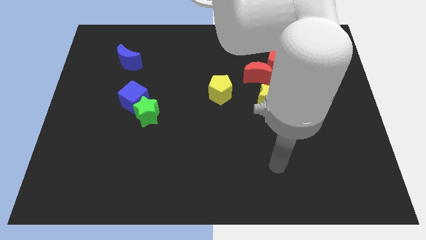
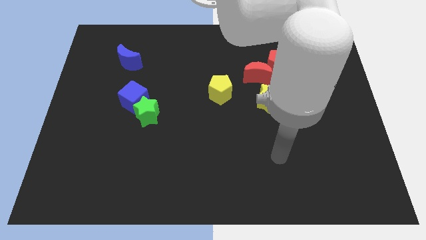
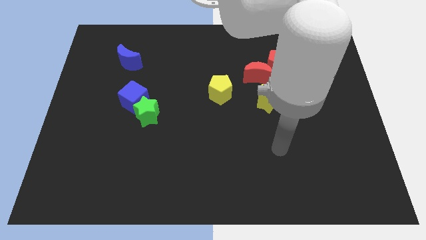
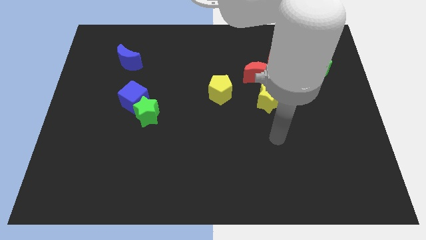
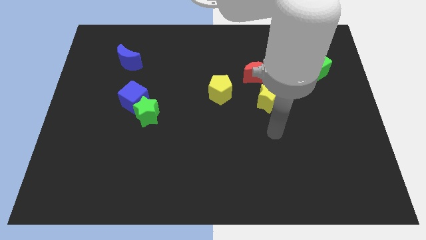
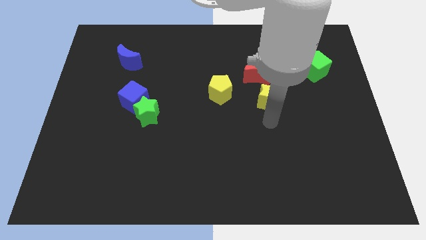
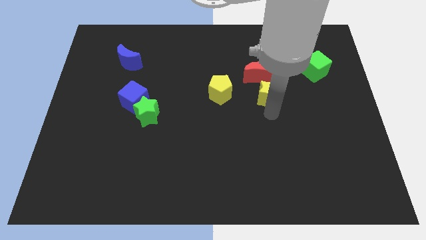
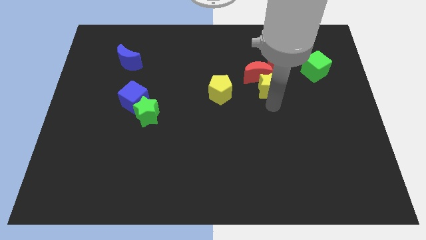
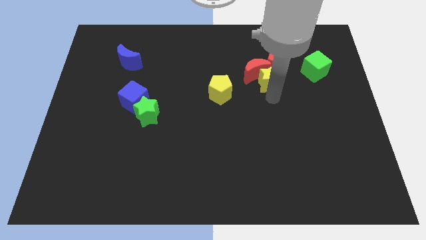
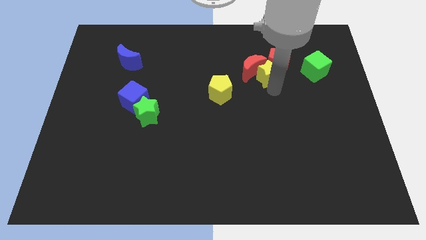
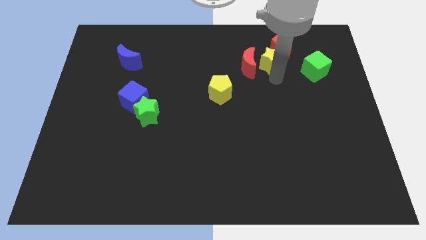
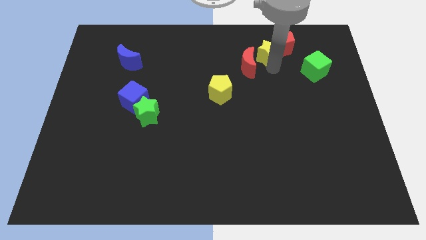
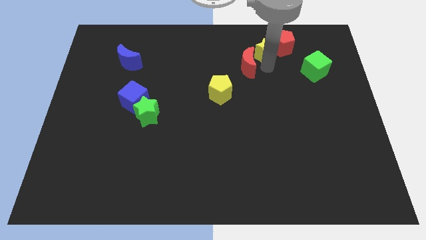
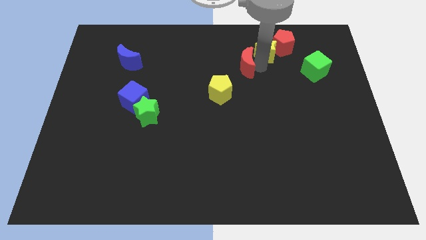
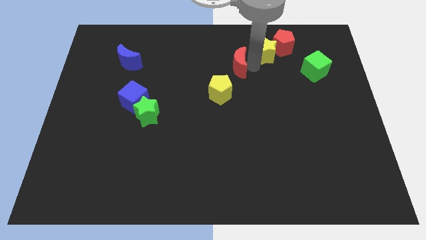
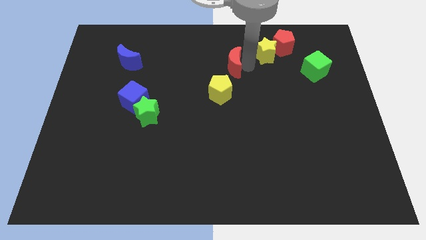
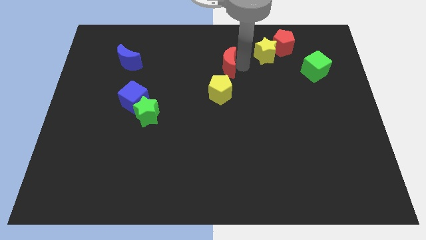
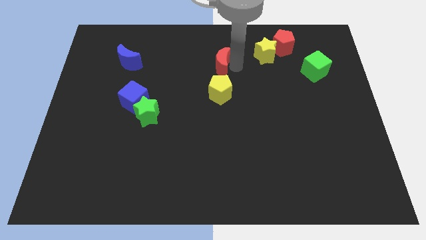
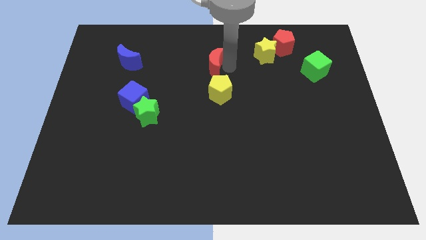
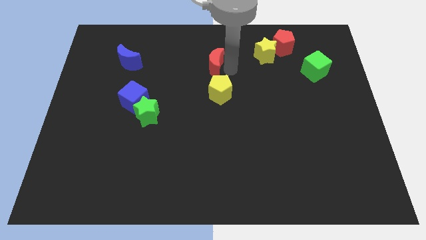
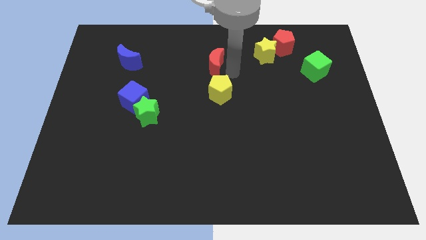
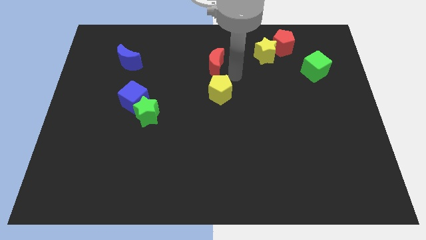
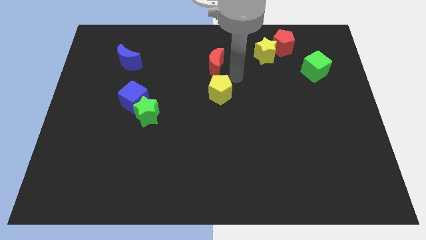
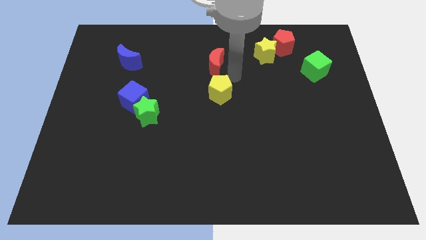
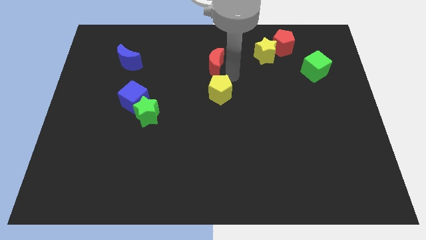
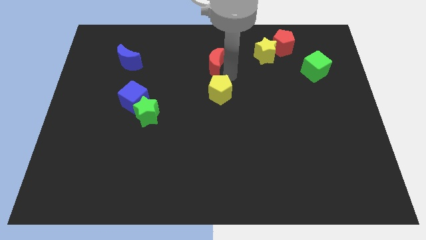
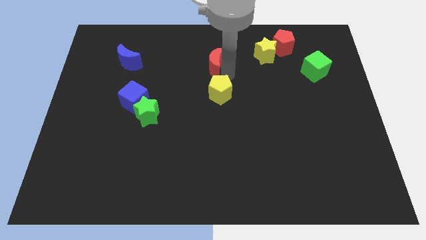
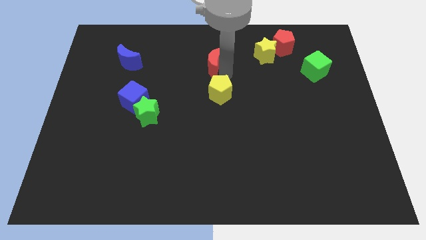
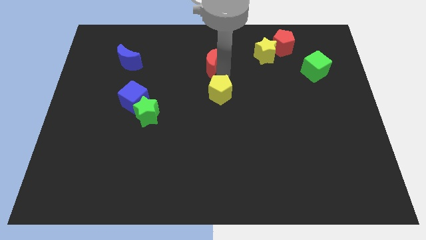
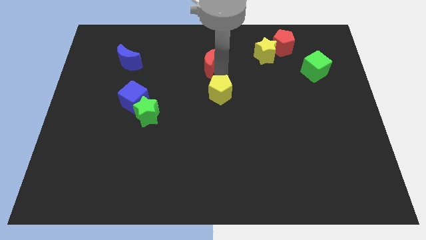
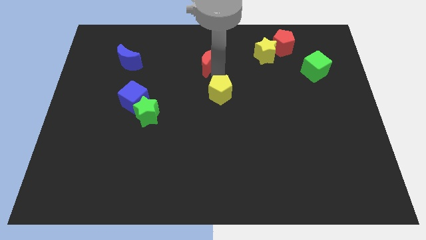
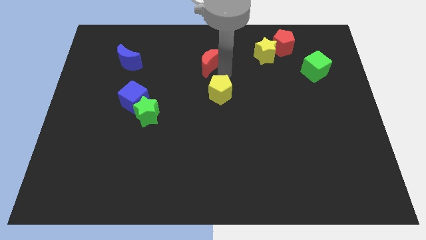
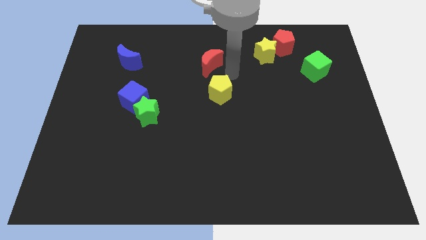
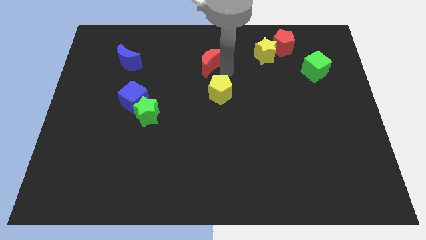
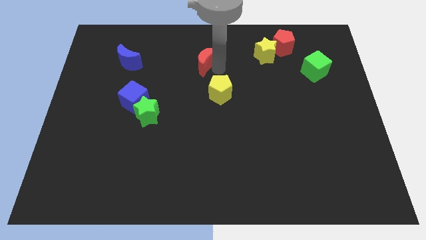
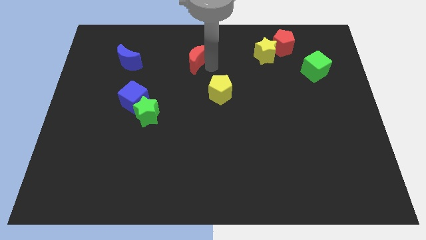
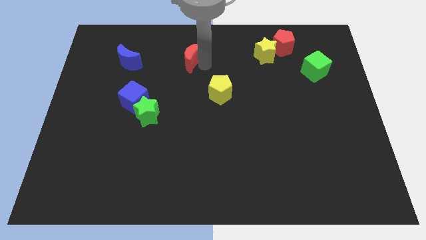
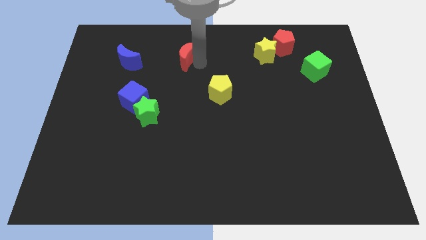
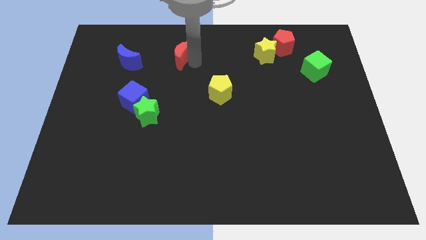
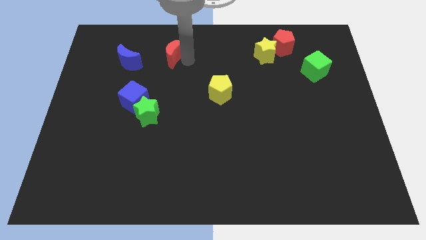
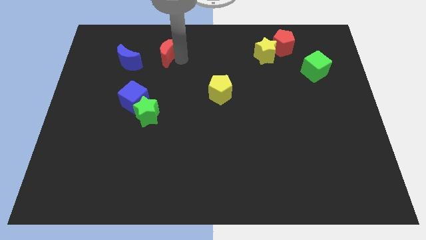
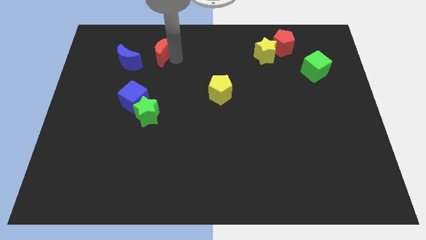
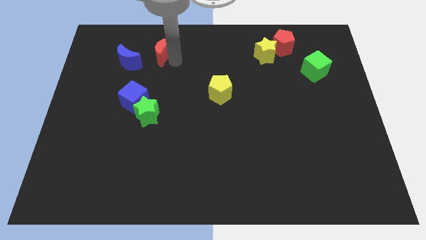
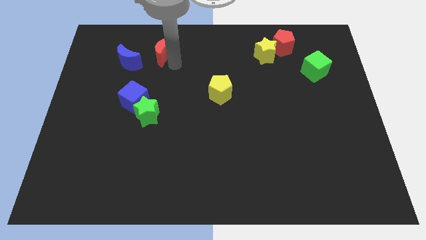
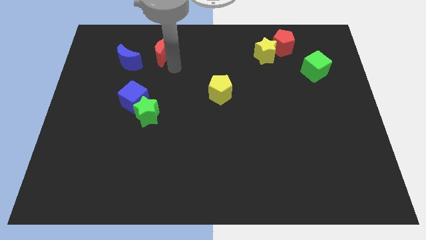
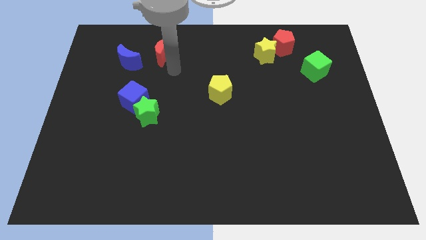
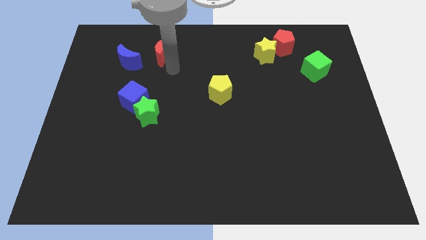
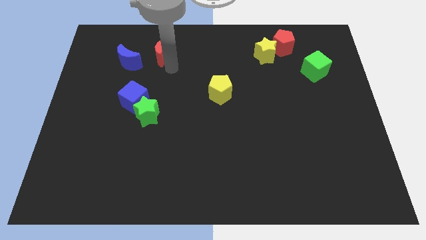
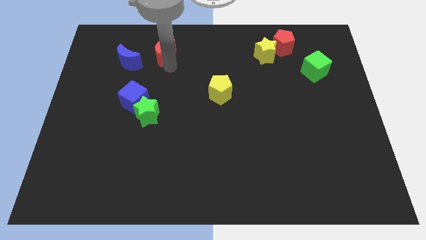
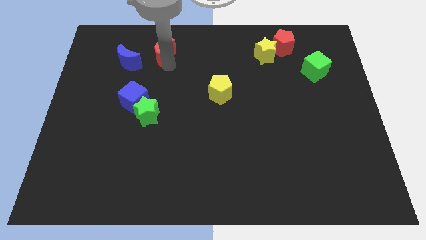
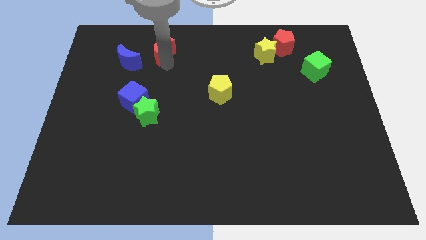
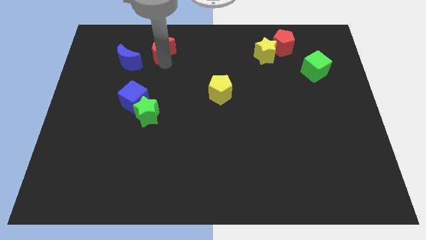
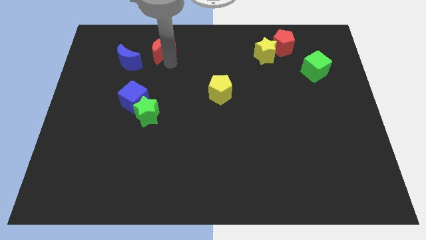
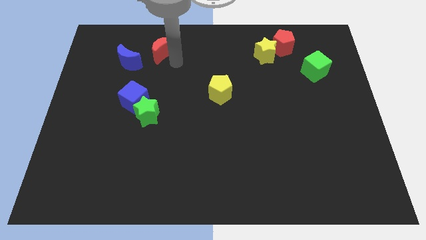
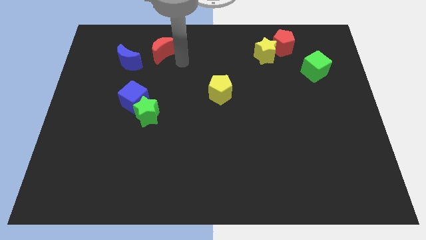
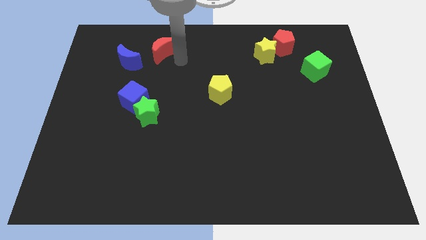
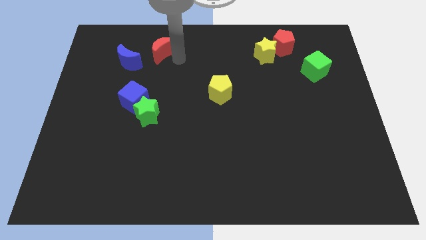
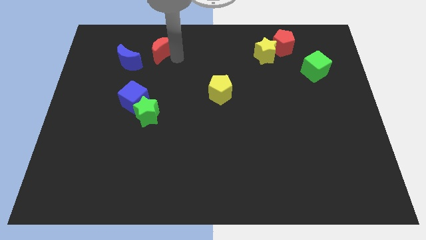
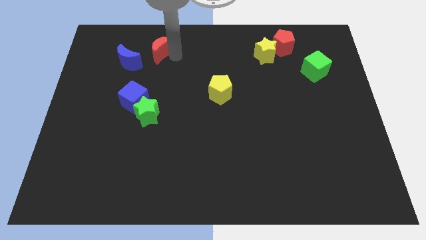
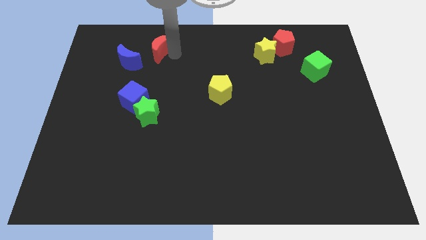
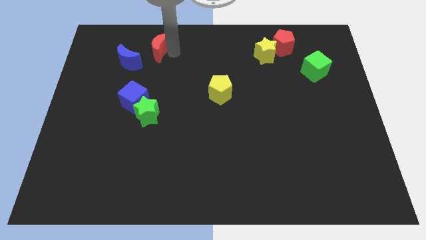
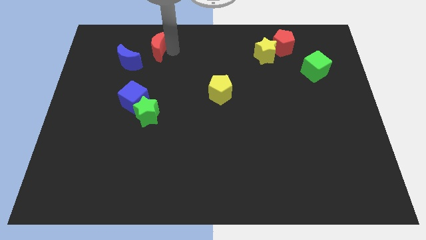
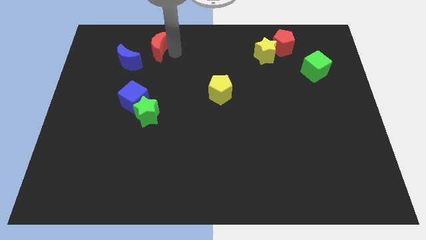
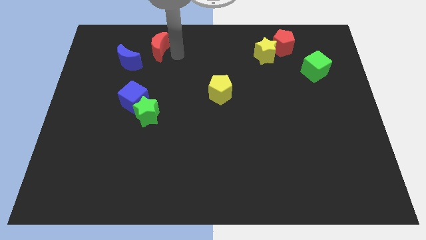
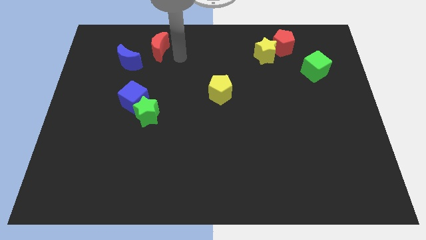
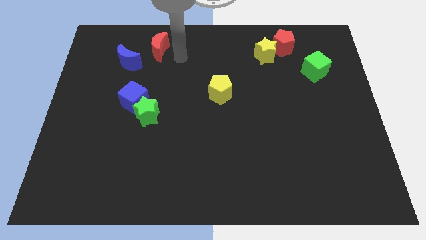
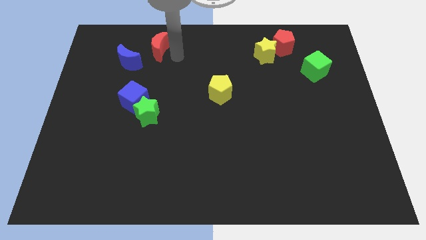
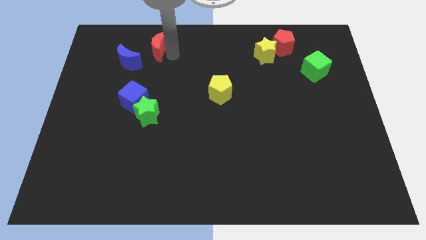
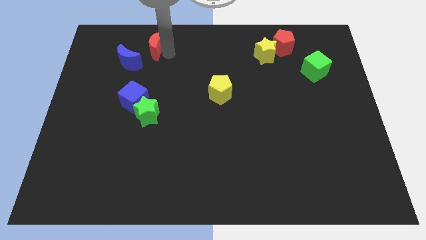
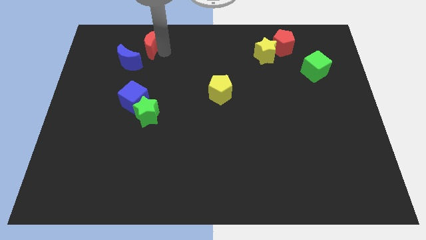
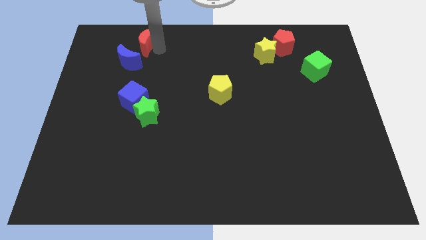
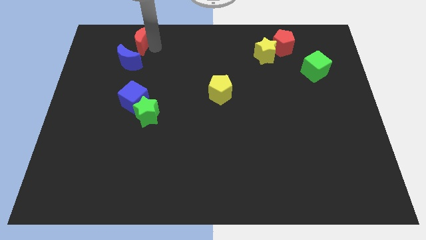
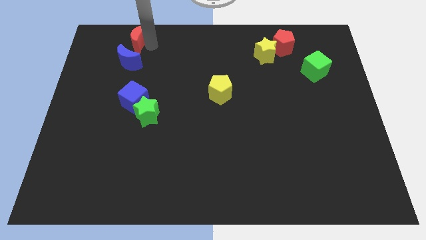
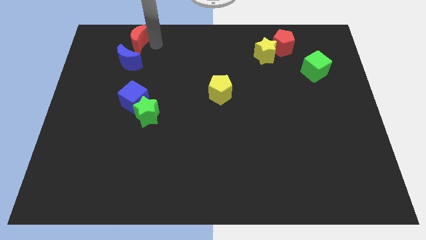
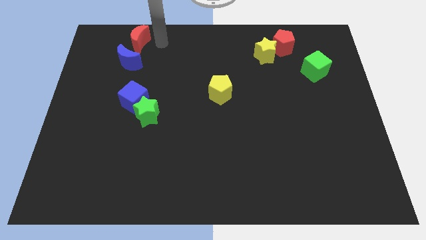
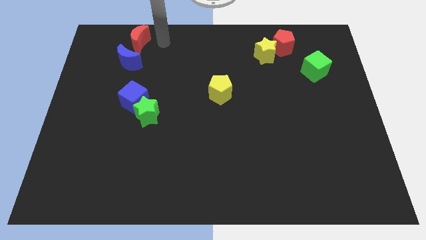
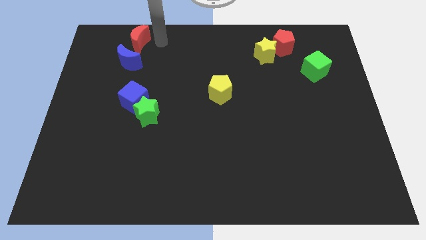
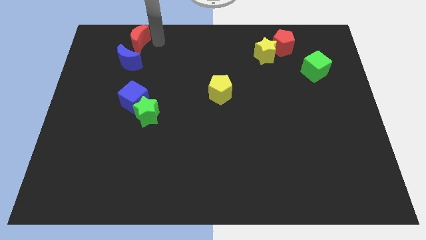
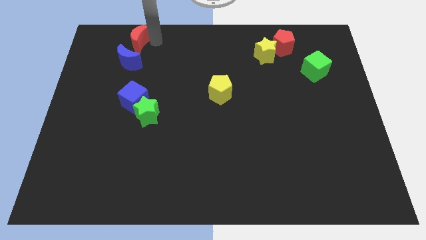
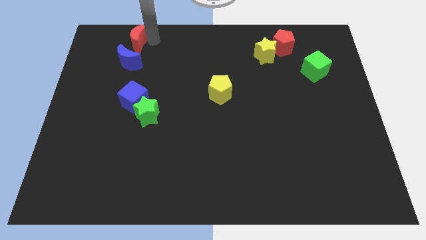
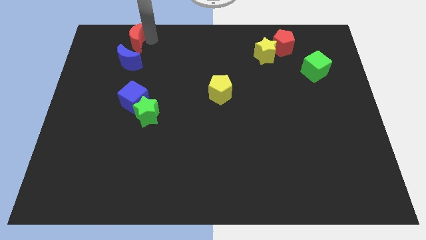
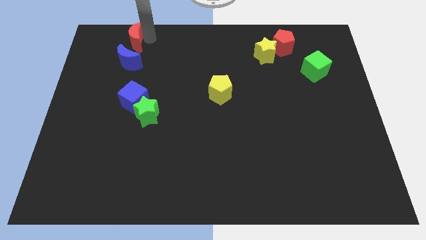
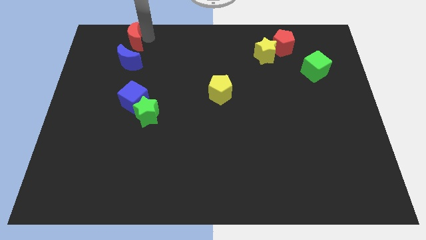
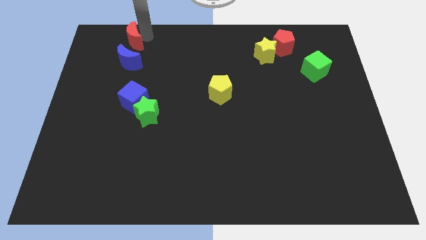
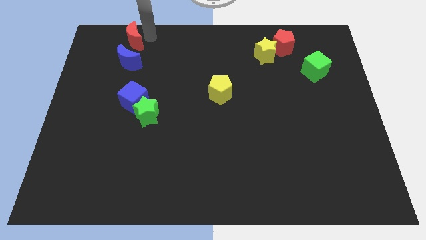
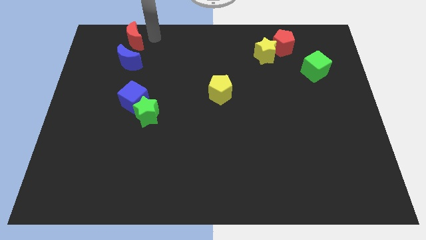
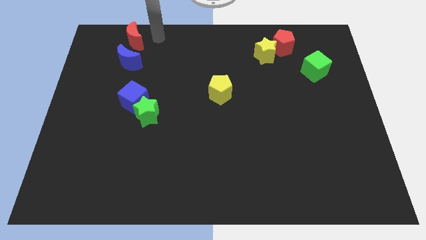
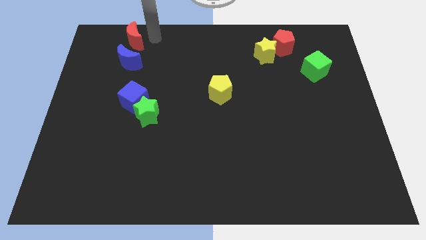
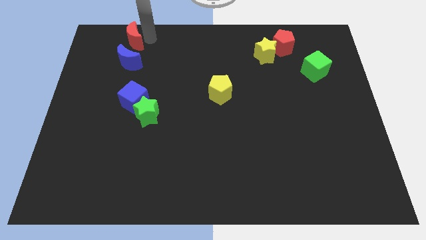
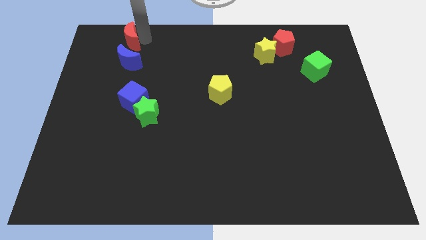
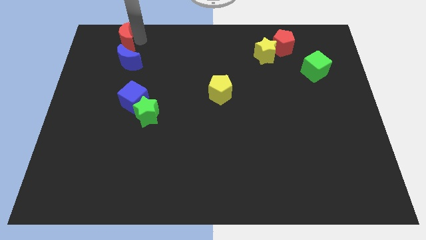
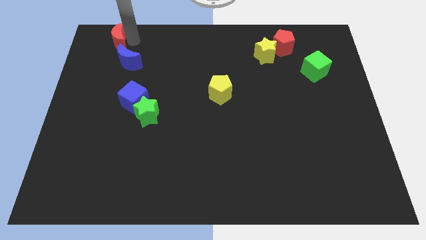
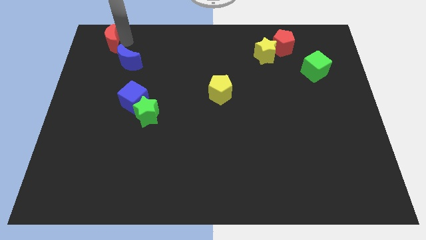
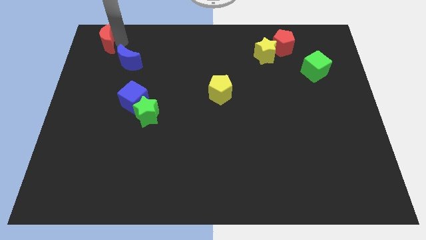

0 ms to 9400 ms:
put the red moon to the top left
